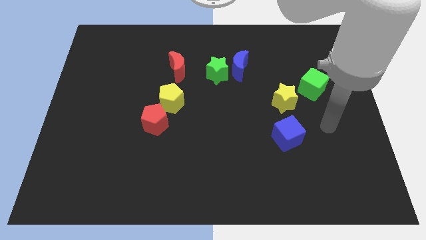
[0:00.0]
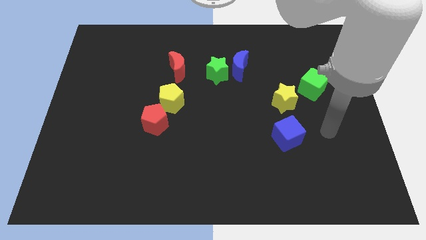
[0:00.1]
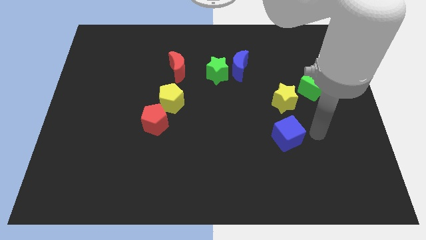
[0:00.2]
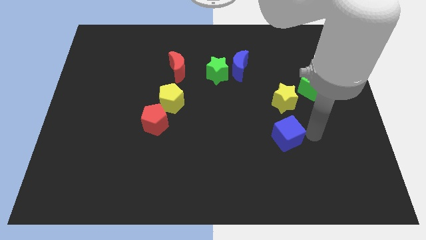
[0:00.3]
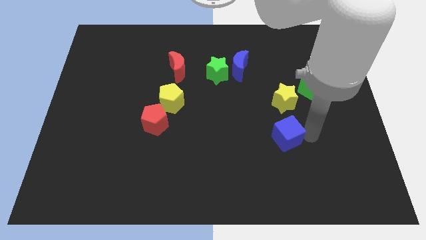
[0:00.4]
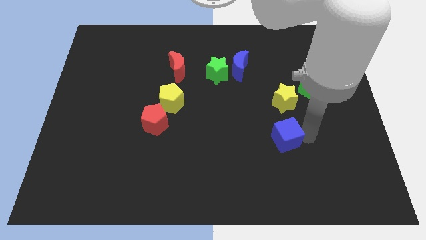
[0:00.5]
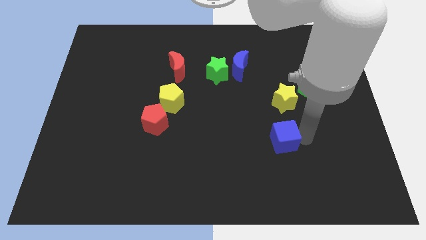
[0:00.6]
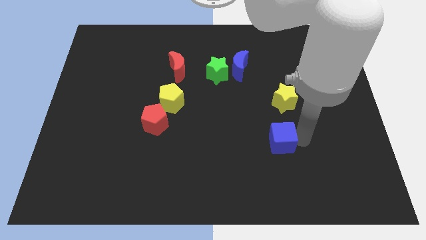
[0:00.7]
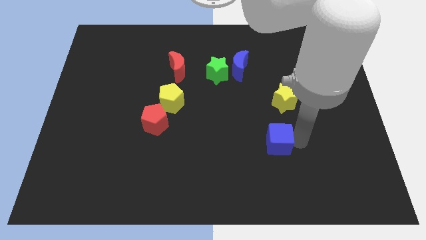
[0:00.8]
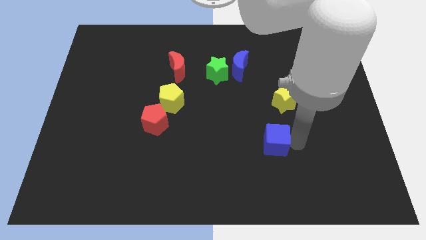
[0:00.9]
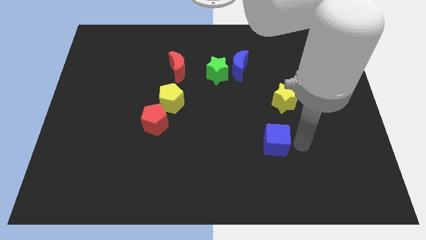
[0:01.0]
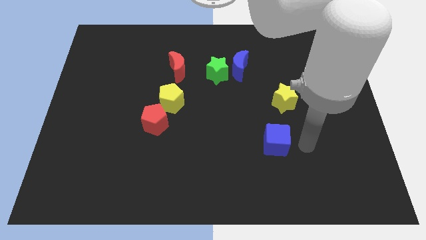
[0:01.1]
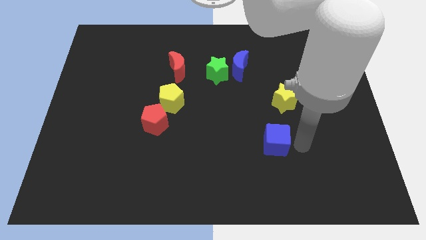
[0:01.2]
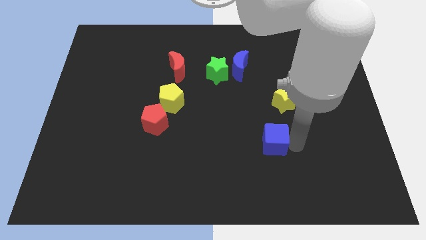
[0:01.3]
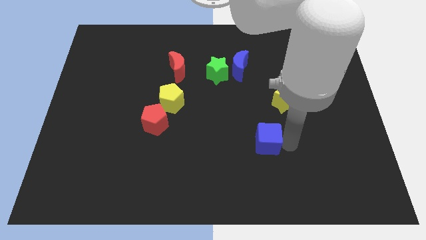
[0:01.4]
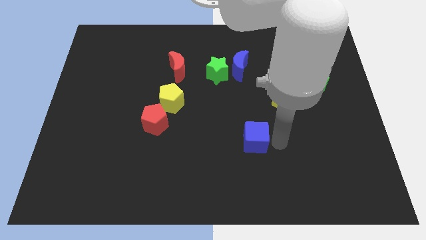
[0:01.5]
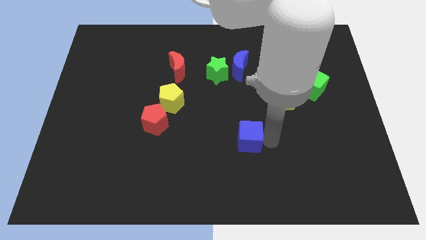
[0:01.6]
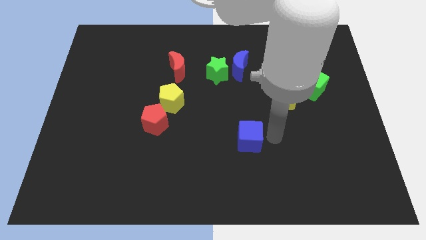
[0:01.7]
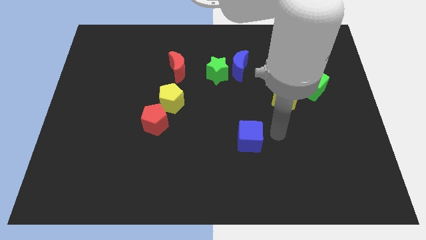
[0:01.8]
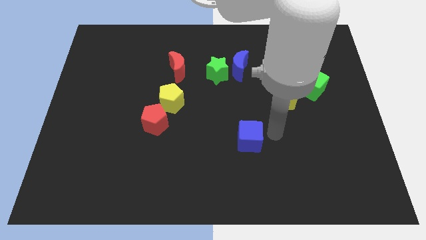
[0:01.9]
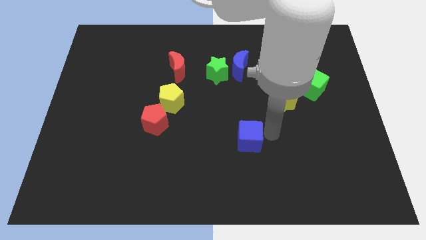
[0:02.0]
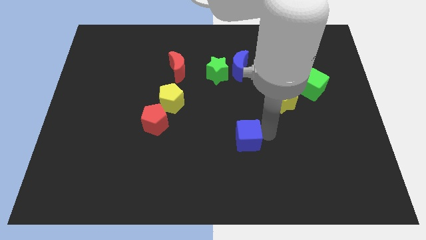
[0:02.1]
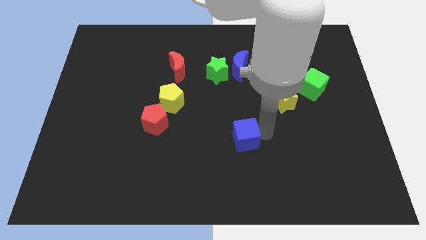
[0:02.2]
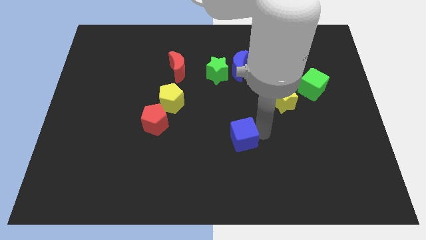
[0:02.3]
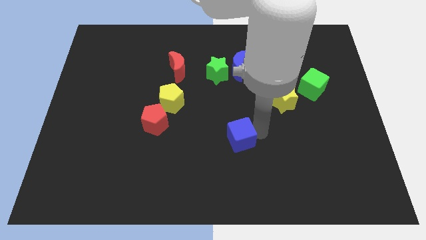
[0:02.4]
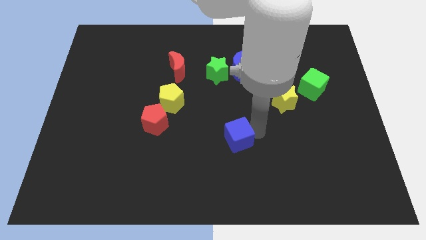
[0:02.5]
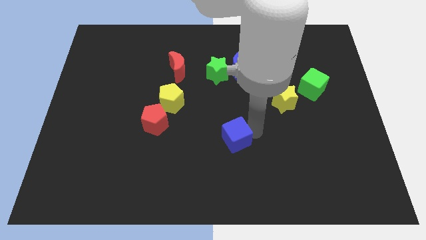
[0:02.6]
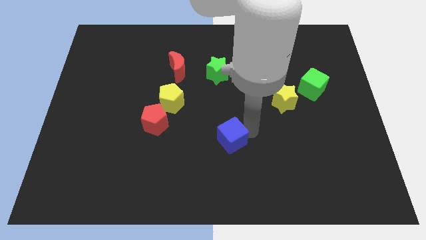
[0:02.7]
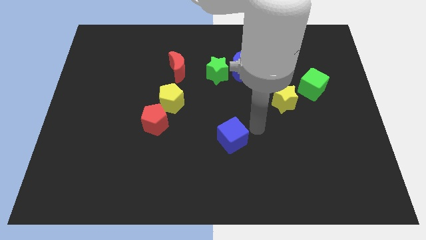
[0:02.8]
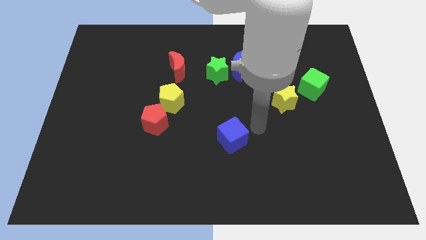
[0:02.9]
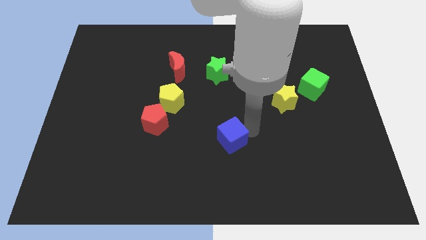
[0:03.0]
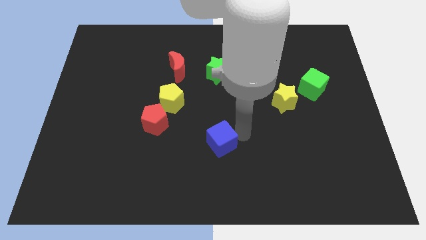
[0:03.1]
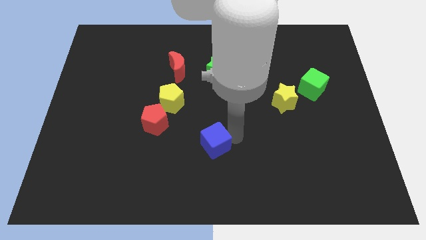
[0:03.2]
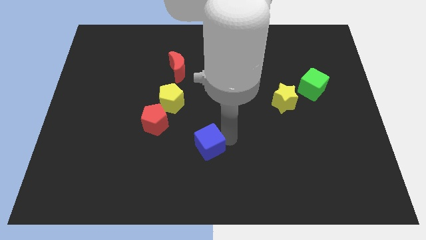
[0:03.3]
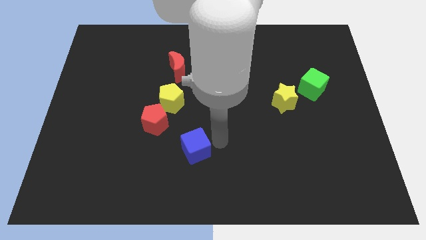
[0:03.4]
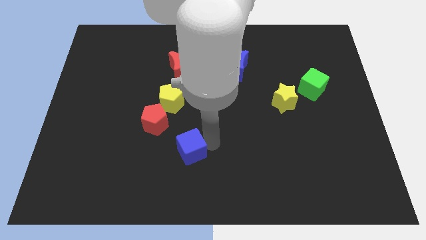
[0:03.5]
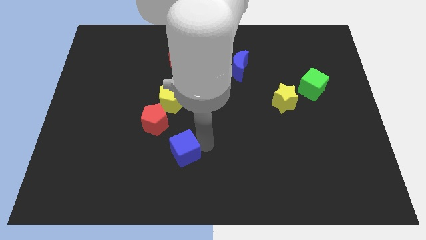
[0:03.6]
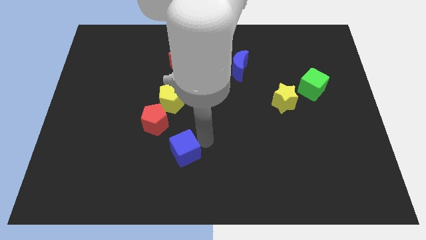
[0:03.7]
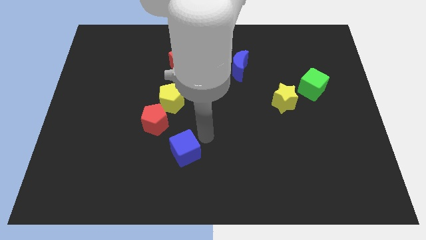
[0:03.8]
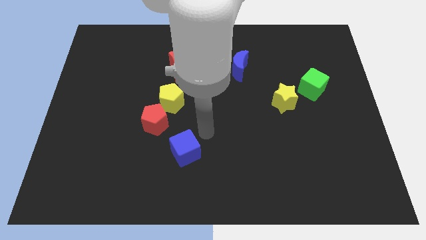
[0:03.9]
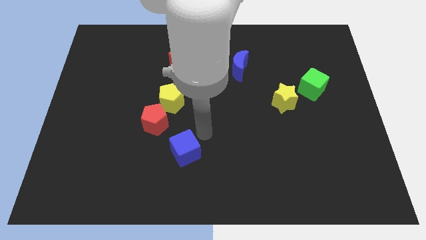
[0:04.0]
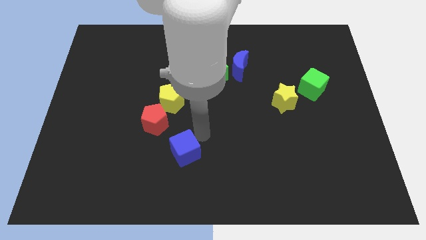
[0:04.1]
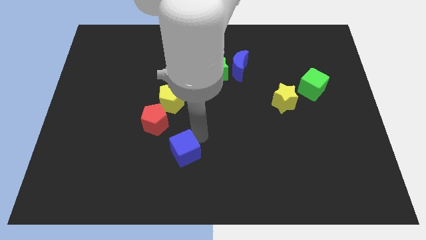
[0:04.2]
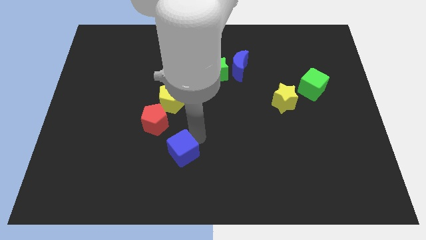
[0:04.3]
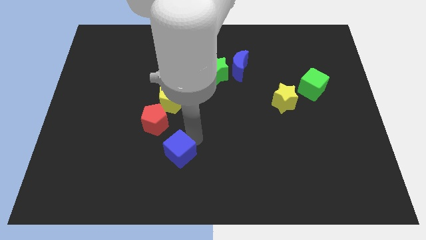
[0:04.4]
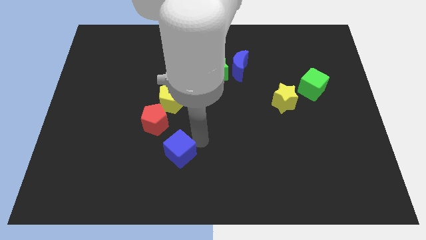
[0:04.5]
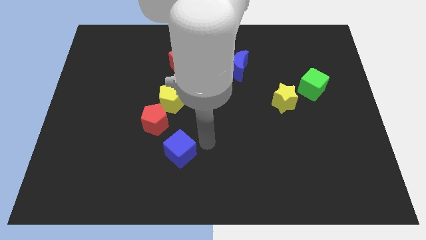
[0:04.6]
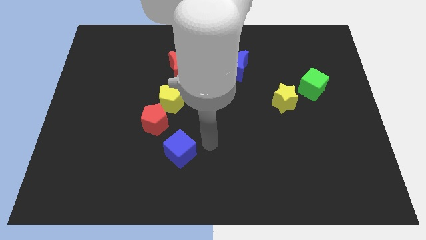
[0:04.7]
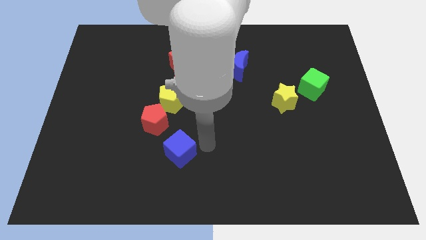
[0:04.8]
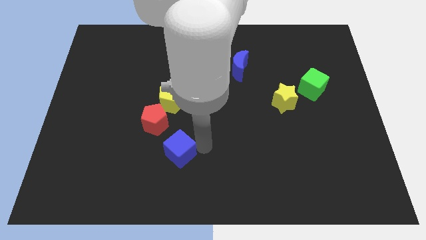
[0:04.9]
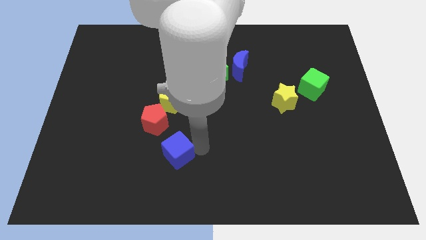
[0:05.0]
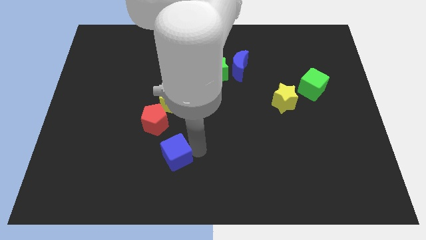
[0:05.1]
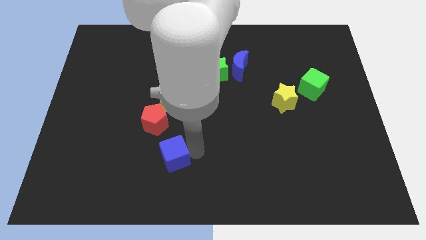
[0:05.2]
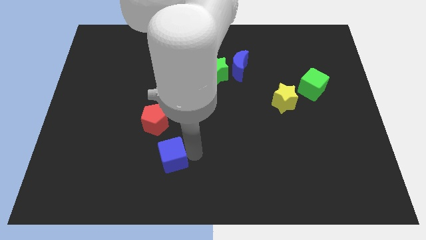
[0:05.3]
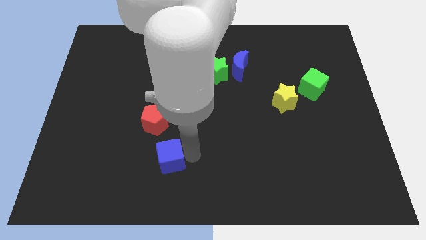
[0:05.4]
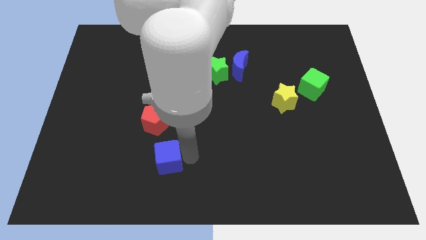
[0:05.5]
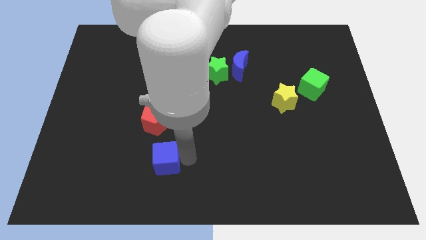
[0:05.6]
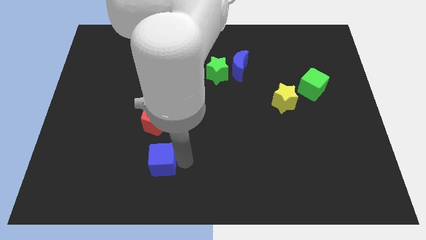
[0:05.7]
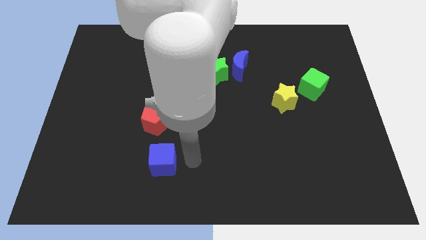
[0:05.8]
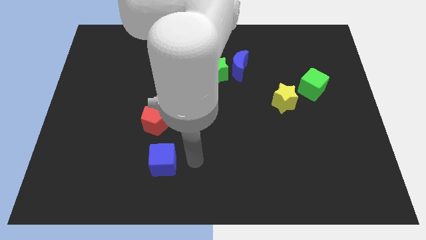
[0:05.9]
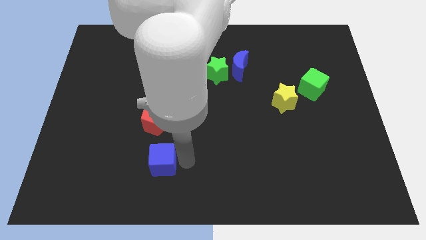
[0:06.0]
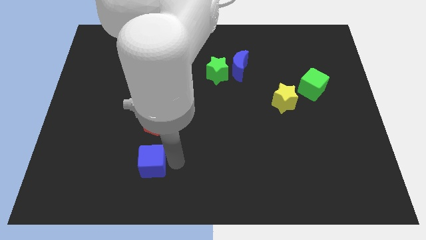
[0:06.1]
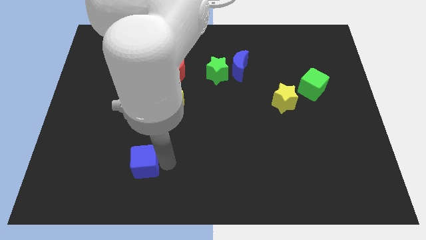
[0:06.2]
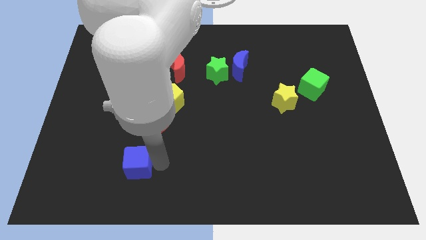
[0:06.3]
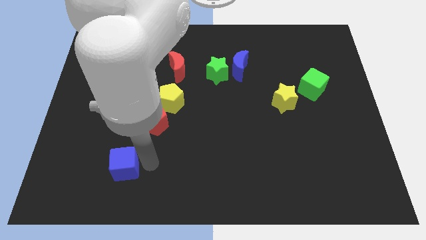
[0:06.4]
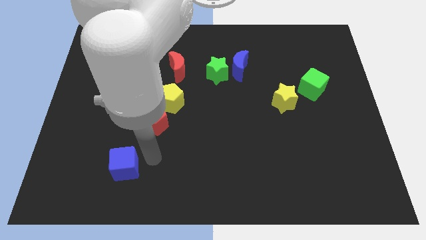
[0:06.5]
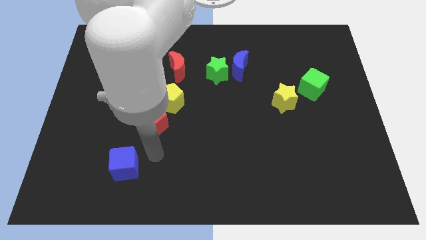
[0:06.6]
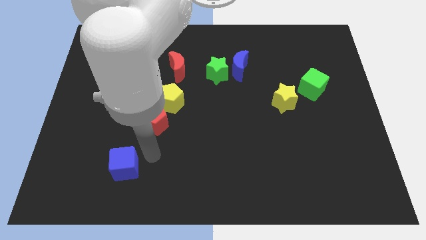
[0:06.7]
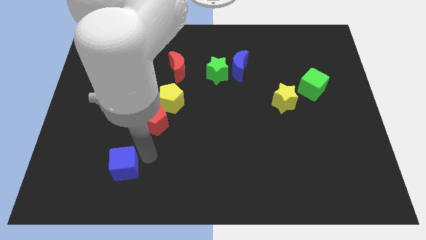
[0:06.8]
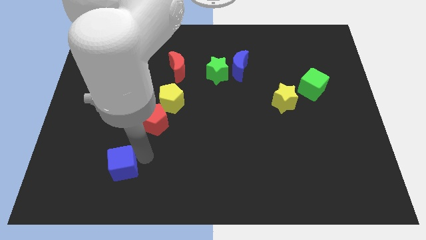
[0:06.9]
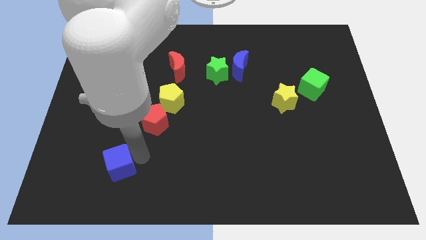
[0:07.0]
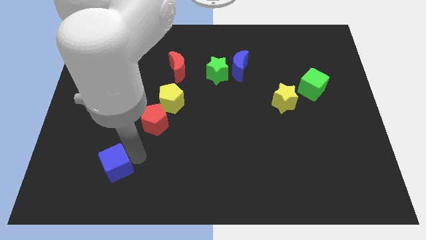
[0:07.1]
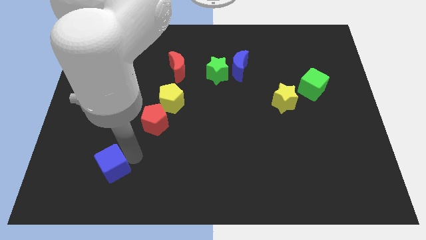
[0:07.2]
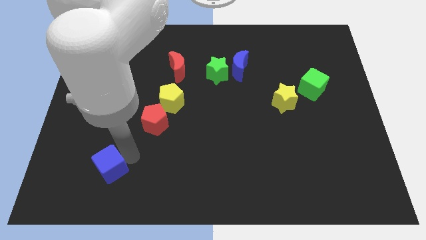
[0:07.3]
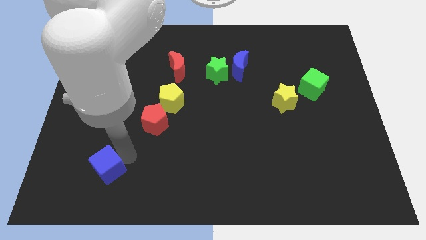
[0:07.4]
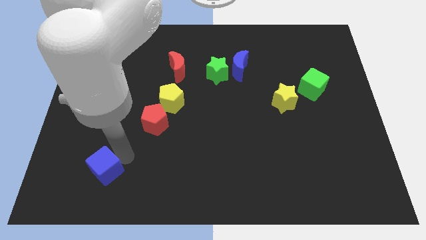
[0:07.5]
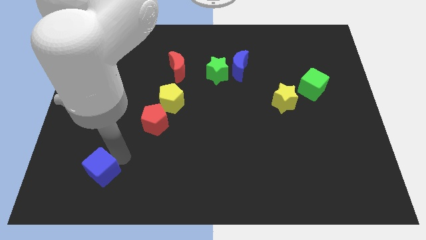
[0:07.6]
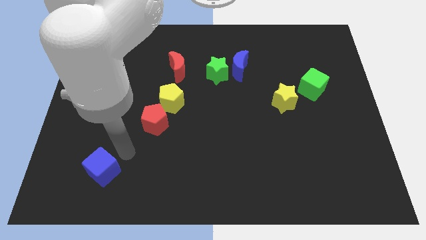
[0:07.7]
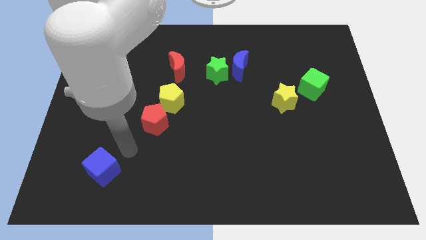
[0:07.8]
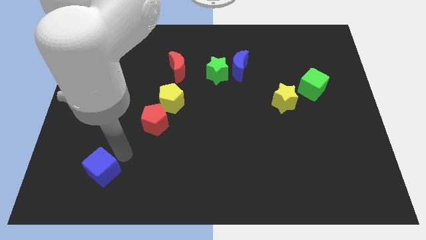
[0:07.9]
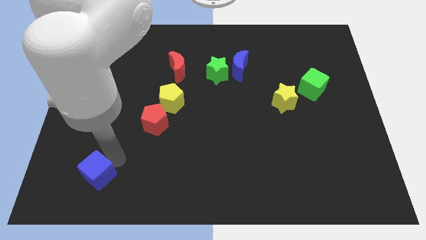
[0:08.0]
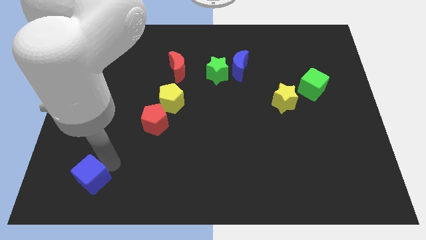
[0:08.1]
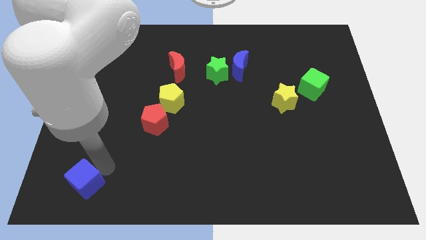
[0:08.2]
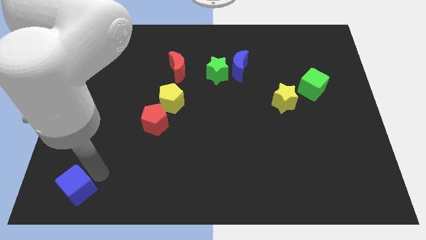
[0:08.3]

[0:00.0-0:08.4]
move the blue cube to the bottom left
